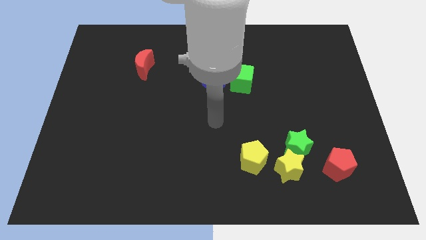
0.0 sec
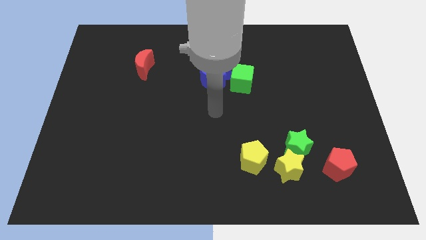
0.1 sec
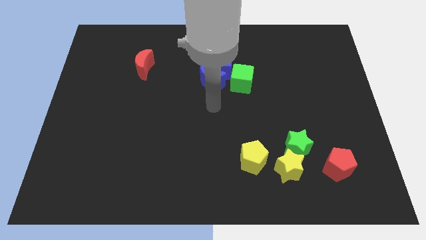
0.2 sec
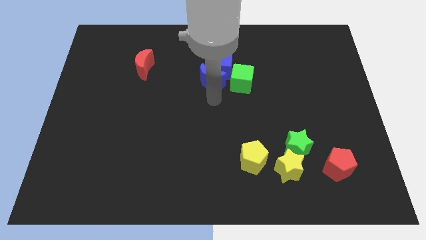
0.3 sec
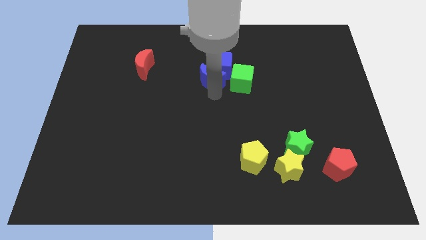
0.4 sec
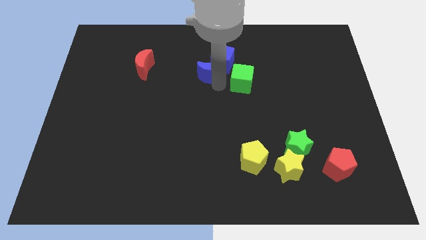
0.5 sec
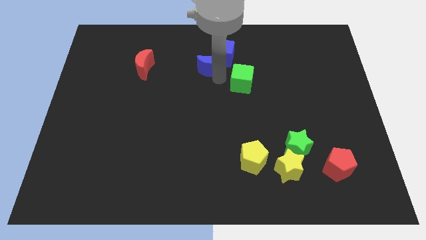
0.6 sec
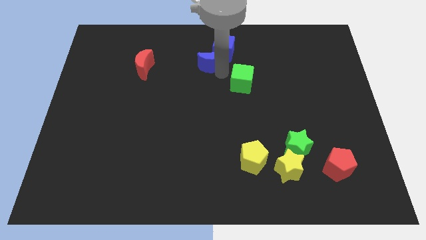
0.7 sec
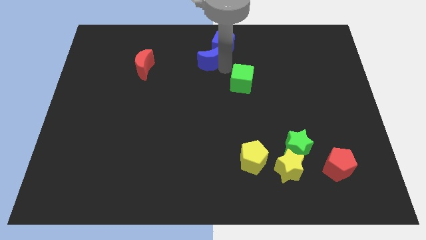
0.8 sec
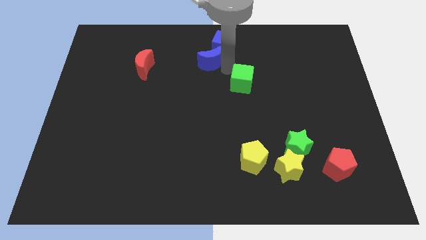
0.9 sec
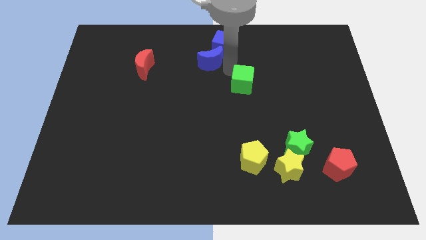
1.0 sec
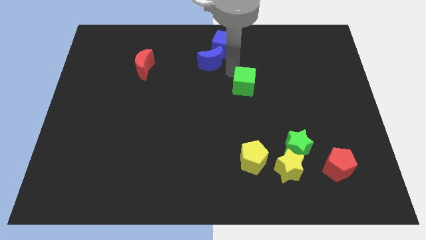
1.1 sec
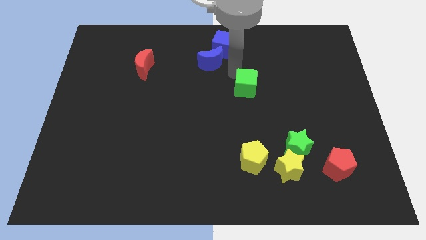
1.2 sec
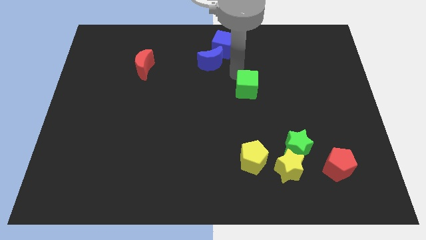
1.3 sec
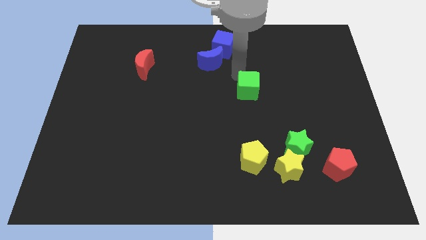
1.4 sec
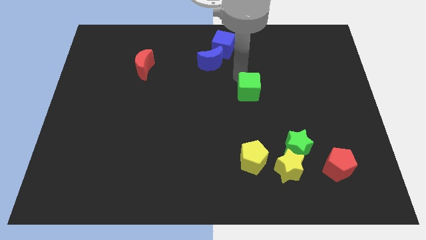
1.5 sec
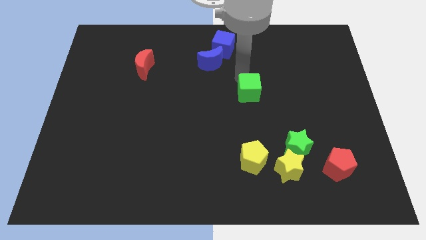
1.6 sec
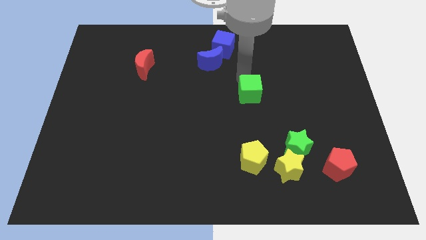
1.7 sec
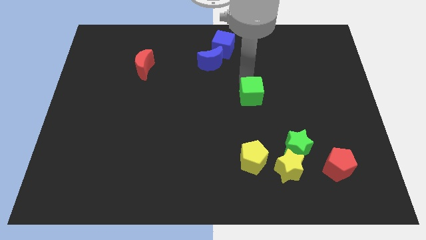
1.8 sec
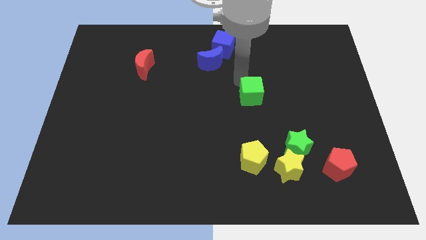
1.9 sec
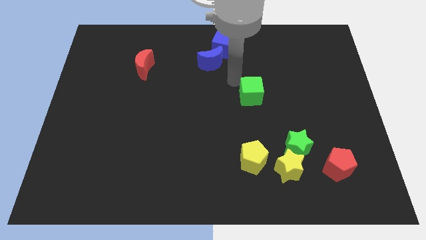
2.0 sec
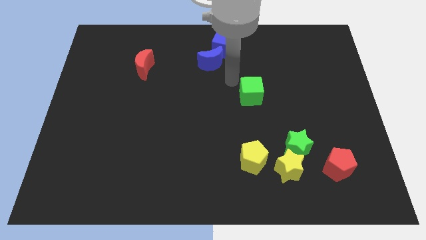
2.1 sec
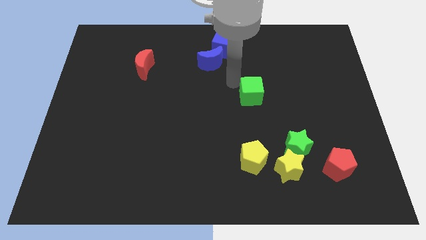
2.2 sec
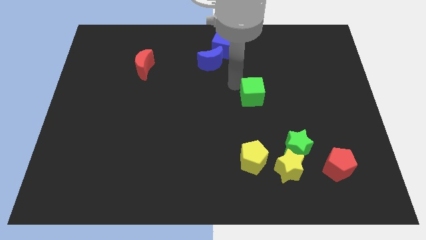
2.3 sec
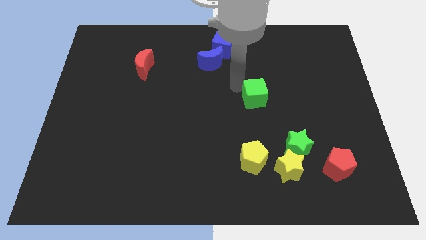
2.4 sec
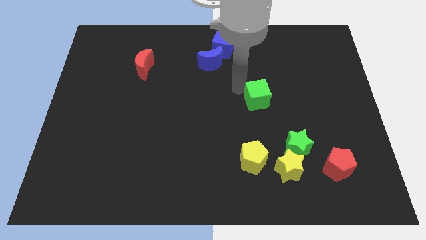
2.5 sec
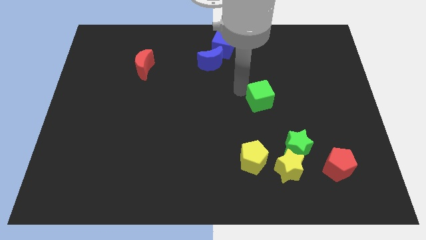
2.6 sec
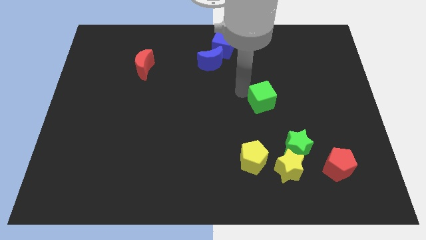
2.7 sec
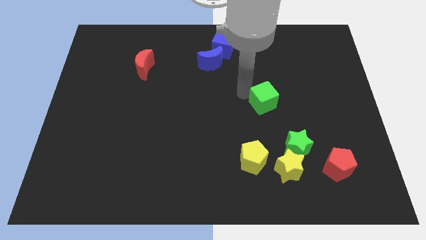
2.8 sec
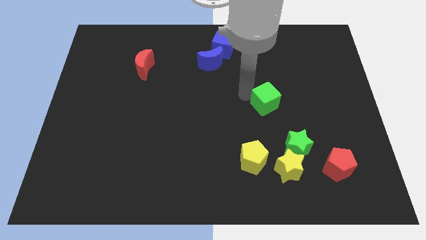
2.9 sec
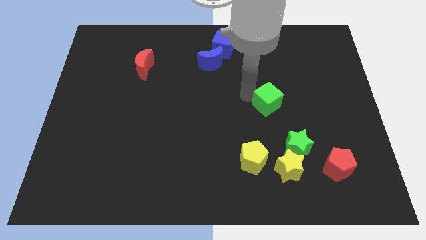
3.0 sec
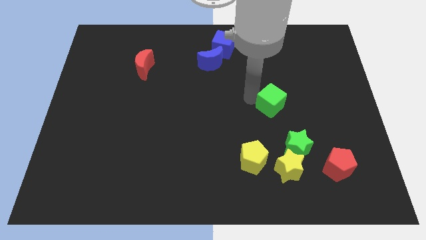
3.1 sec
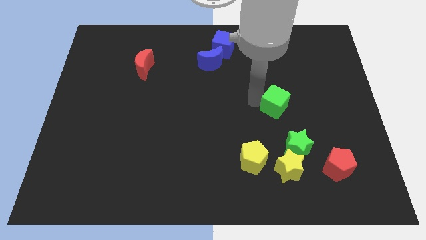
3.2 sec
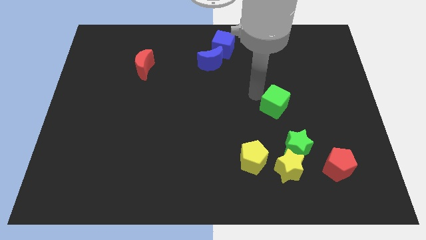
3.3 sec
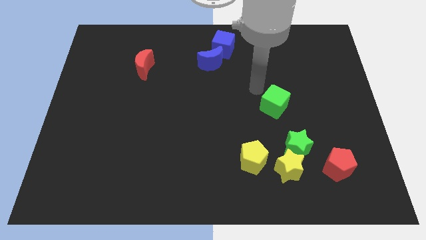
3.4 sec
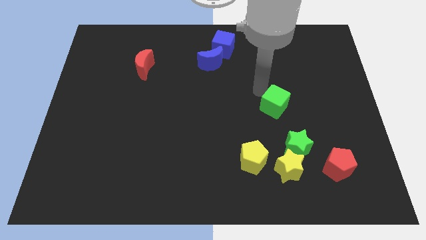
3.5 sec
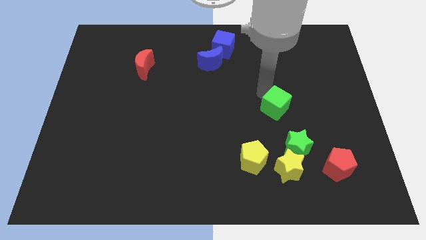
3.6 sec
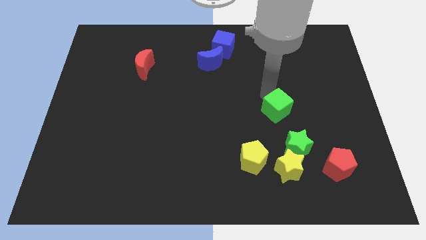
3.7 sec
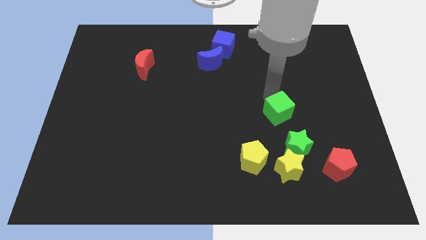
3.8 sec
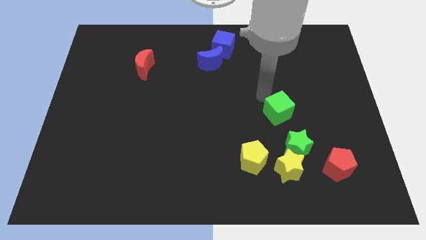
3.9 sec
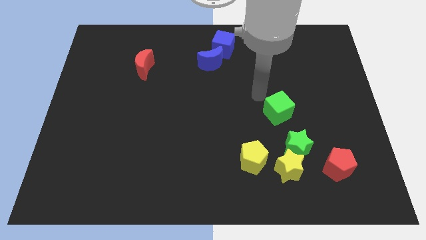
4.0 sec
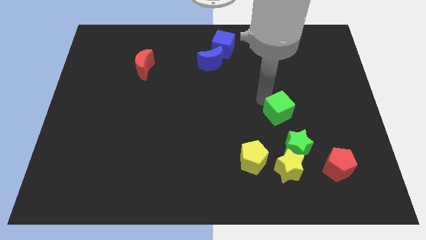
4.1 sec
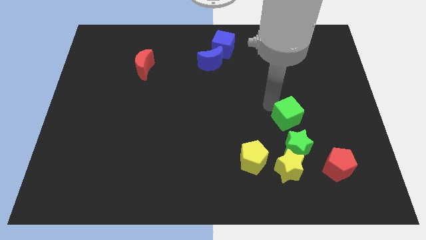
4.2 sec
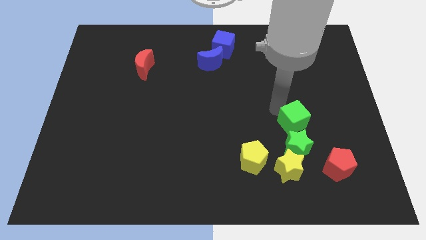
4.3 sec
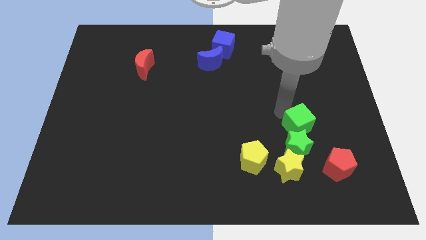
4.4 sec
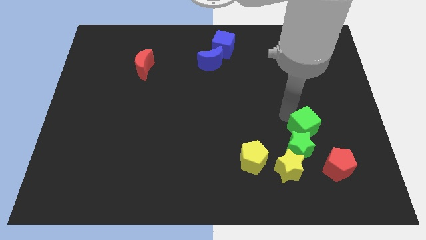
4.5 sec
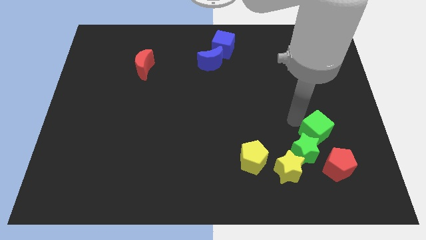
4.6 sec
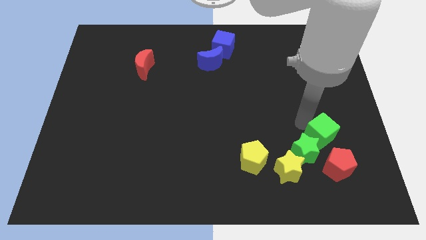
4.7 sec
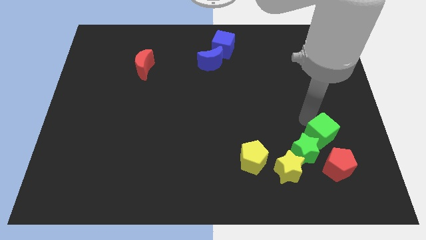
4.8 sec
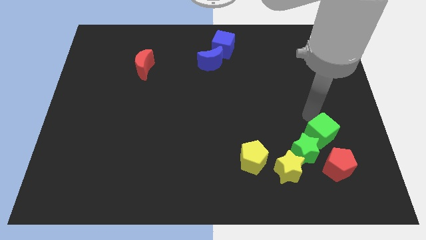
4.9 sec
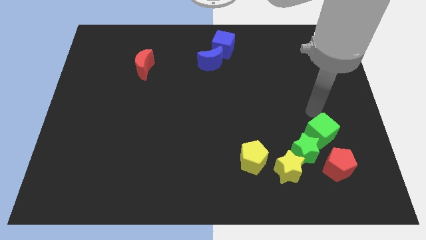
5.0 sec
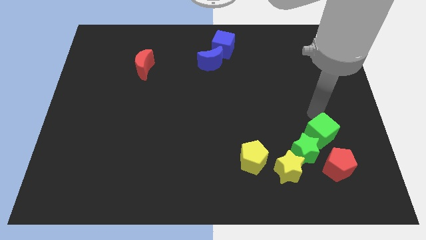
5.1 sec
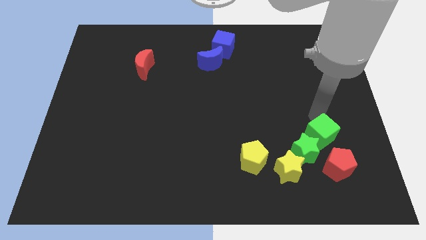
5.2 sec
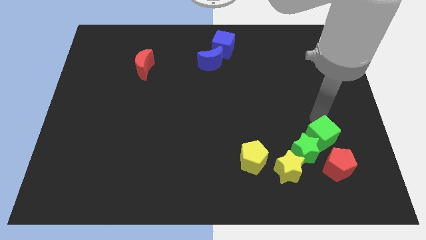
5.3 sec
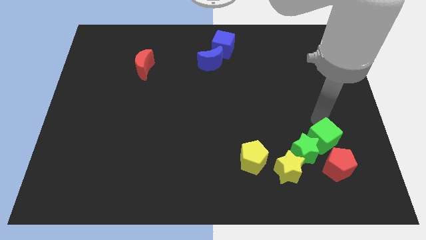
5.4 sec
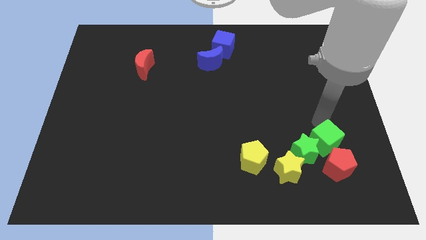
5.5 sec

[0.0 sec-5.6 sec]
move the green cube to the red pentagon

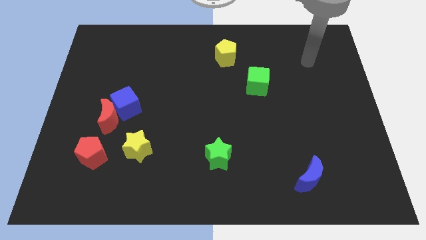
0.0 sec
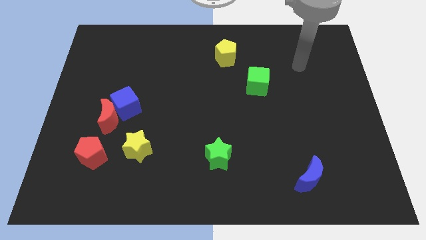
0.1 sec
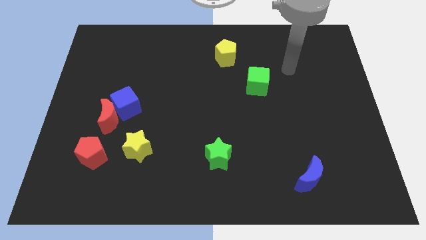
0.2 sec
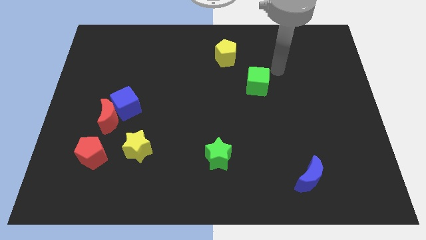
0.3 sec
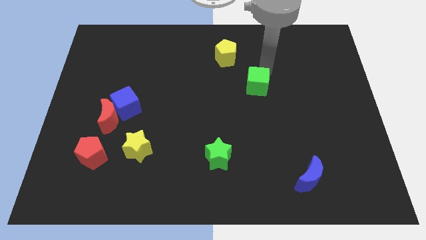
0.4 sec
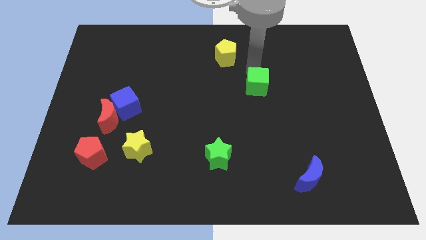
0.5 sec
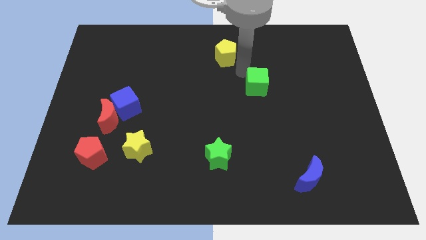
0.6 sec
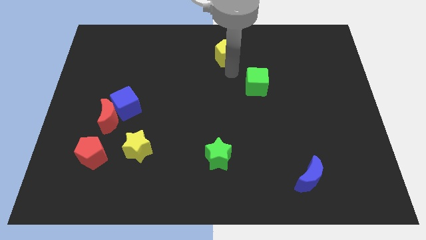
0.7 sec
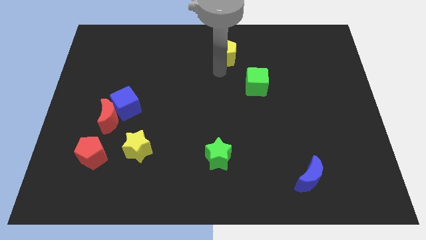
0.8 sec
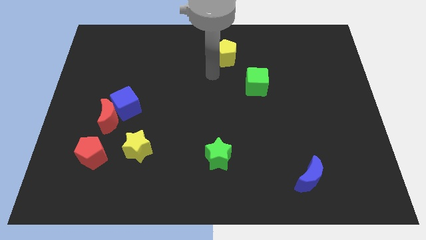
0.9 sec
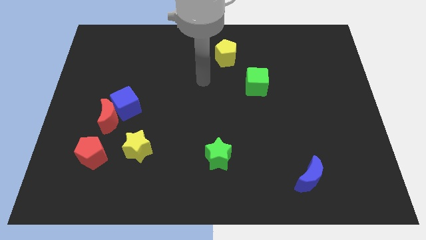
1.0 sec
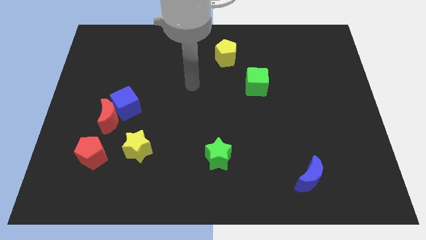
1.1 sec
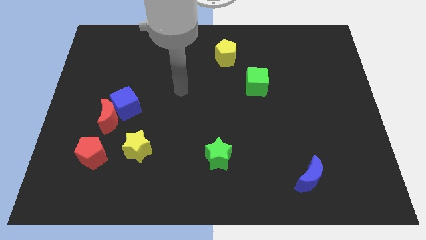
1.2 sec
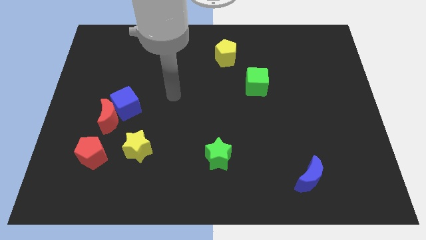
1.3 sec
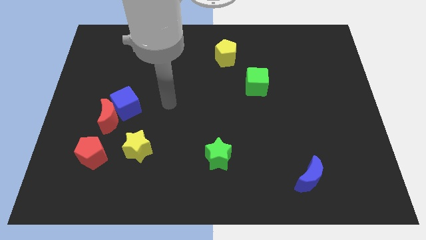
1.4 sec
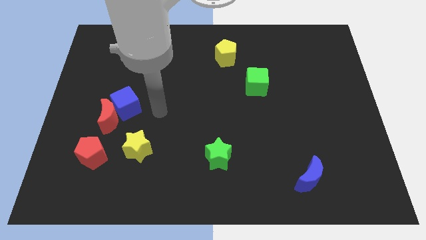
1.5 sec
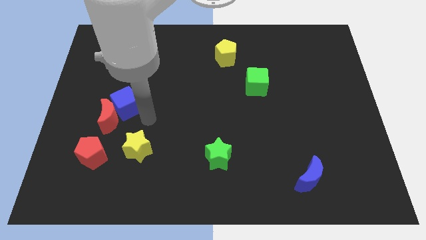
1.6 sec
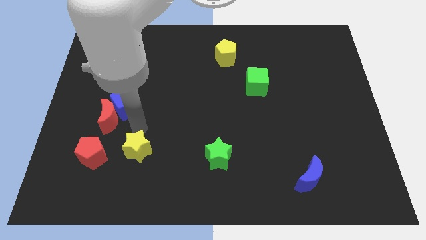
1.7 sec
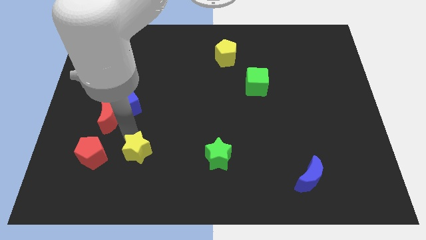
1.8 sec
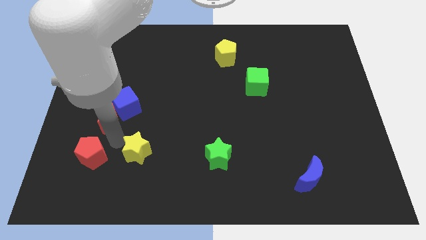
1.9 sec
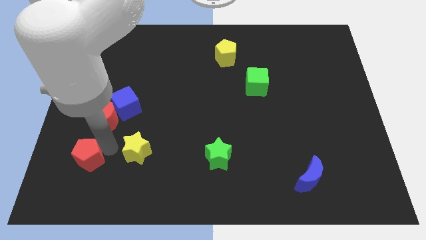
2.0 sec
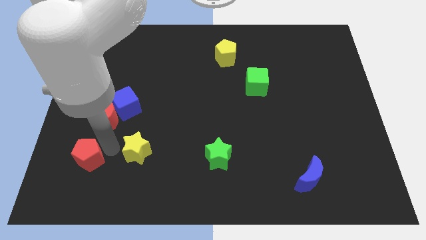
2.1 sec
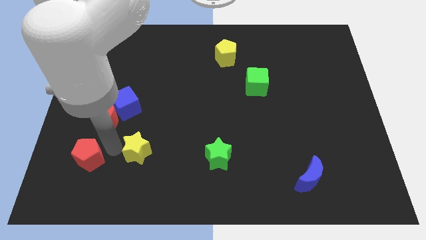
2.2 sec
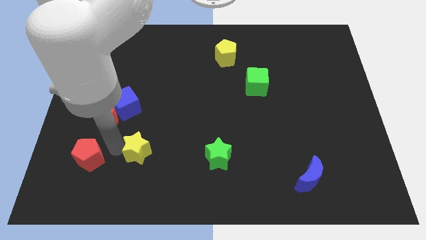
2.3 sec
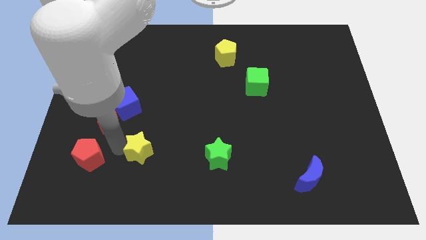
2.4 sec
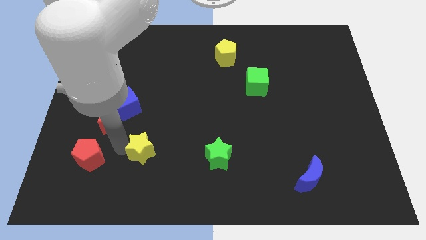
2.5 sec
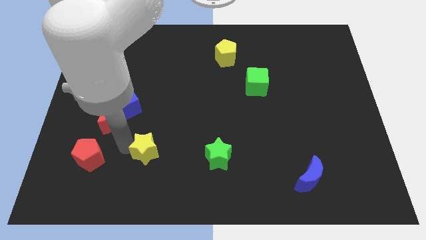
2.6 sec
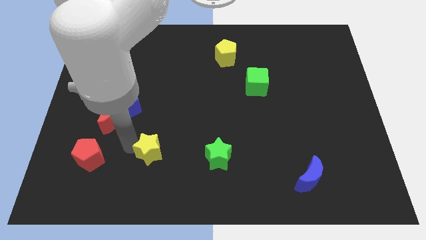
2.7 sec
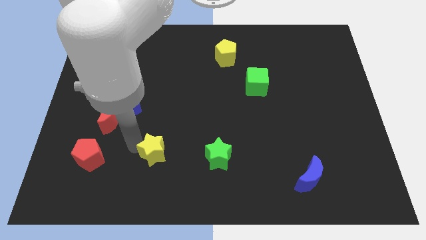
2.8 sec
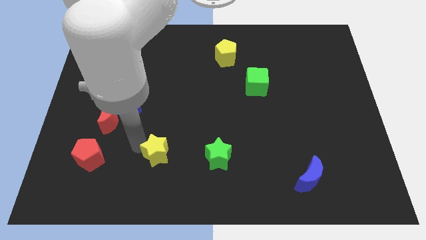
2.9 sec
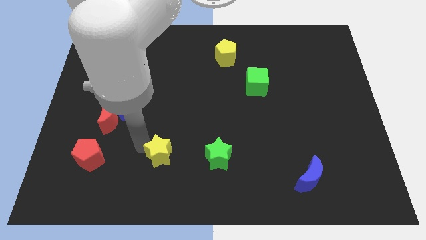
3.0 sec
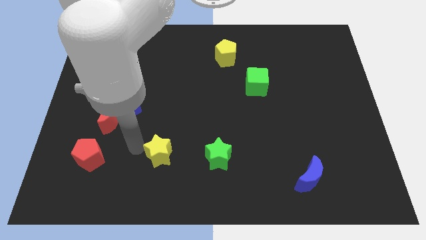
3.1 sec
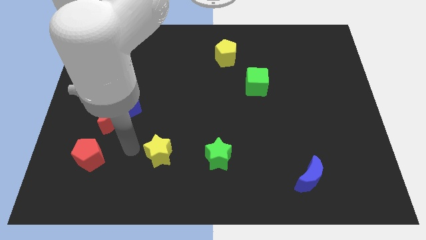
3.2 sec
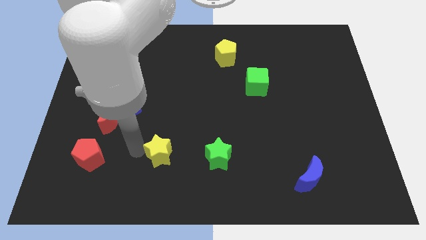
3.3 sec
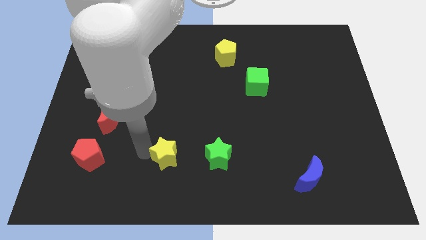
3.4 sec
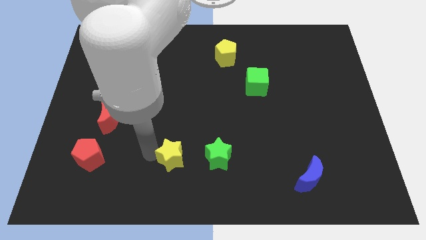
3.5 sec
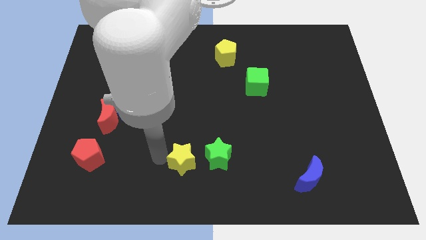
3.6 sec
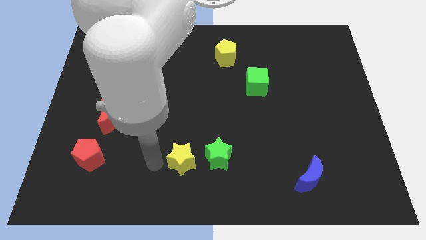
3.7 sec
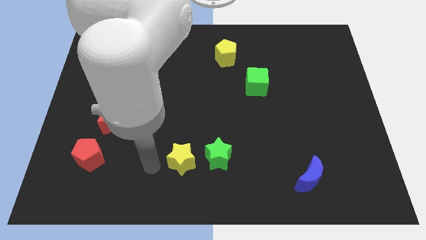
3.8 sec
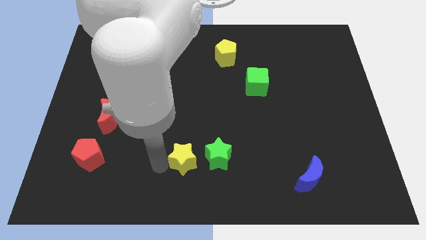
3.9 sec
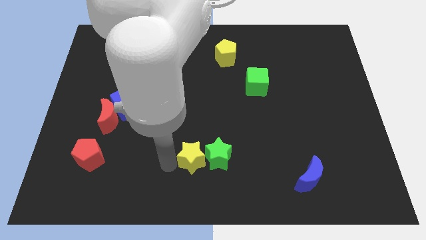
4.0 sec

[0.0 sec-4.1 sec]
move the yellow star towards the green star
